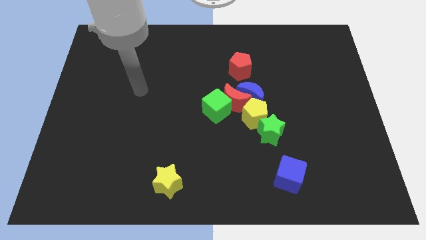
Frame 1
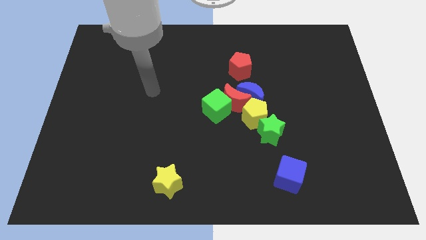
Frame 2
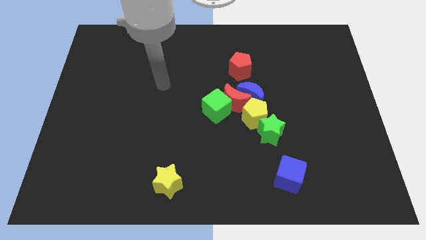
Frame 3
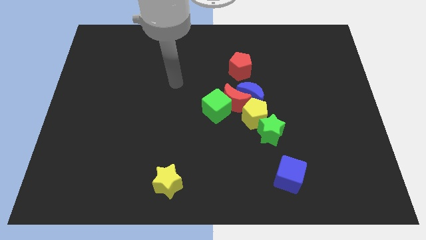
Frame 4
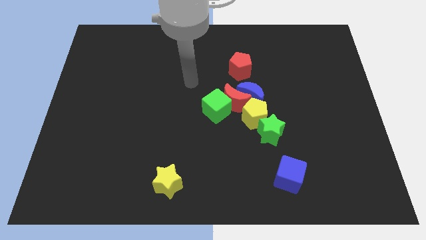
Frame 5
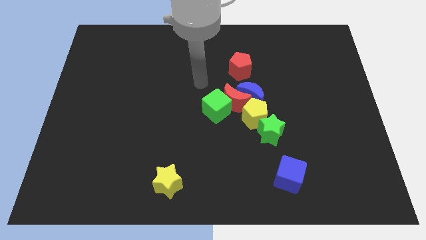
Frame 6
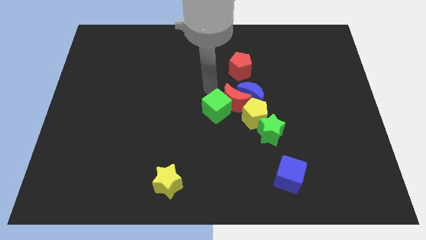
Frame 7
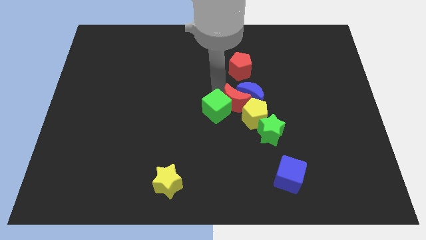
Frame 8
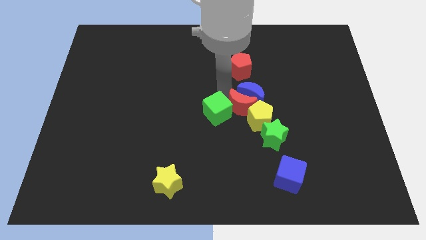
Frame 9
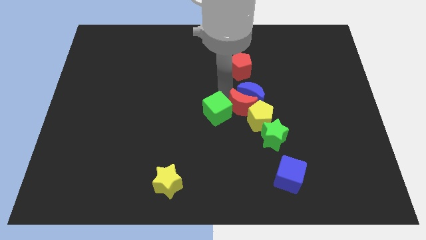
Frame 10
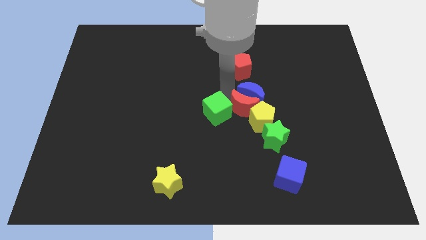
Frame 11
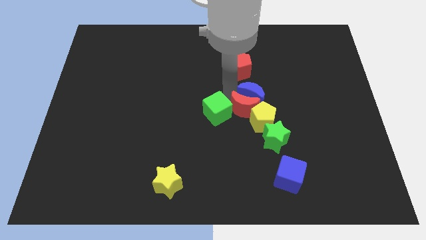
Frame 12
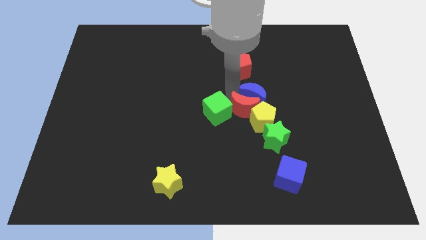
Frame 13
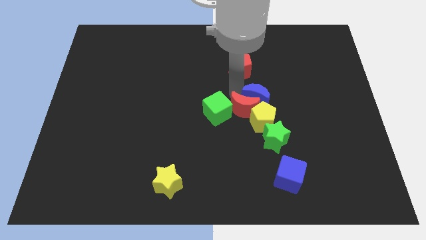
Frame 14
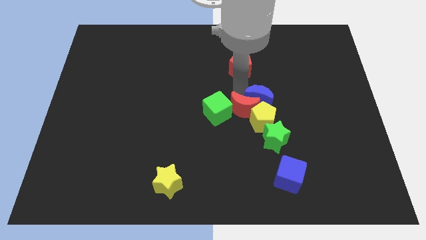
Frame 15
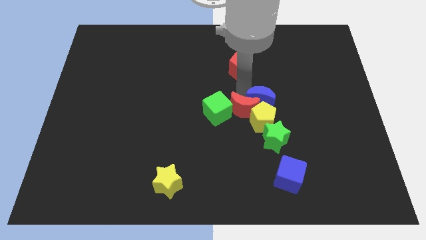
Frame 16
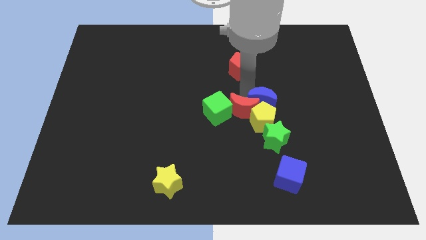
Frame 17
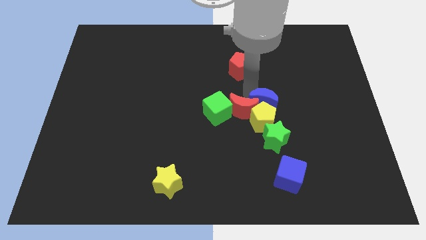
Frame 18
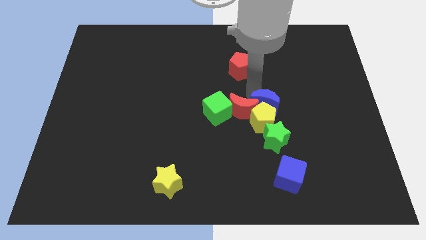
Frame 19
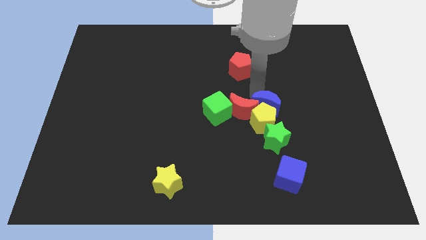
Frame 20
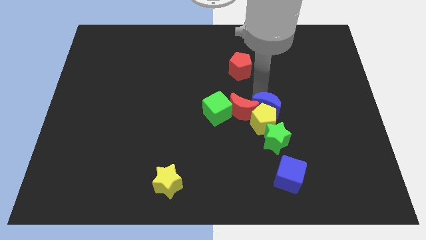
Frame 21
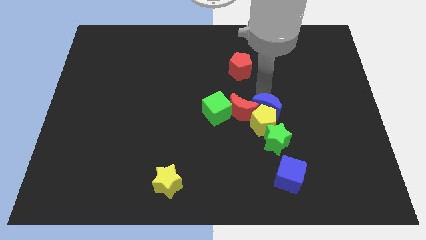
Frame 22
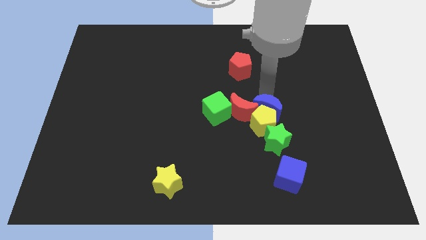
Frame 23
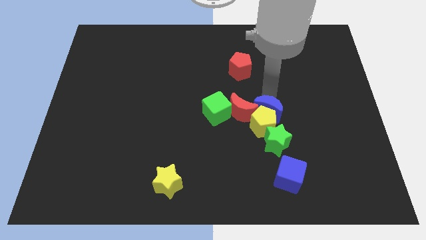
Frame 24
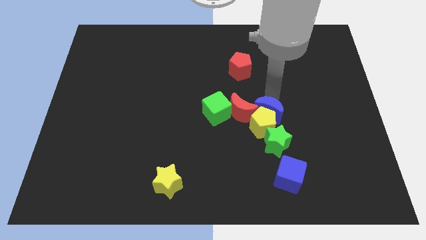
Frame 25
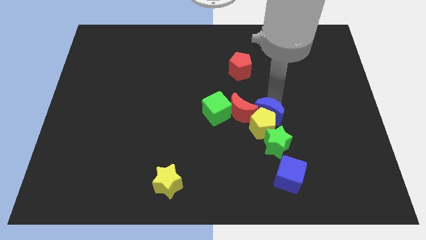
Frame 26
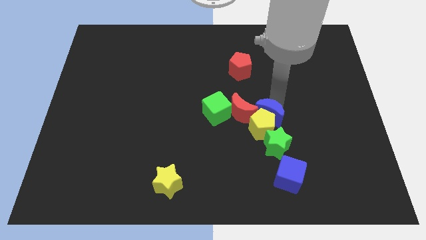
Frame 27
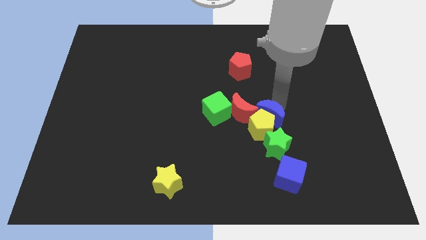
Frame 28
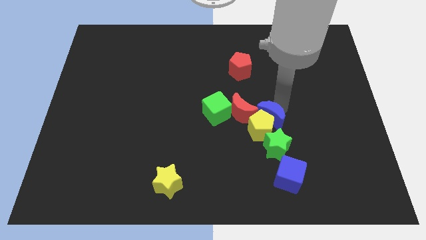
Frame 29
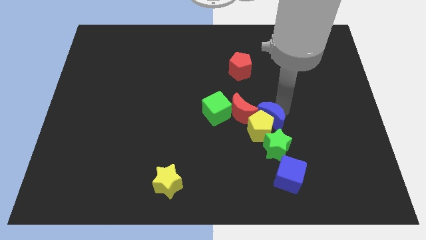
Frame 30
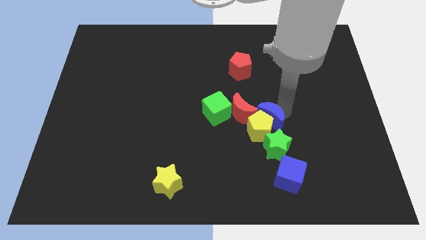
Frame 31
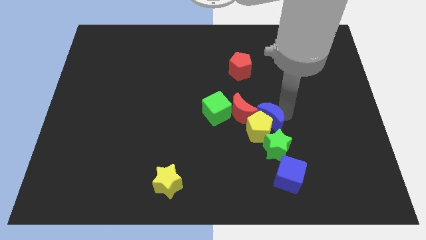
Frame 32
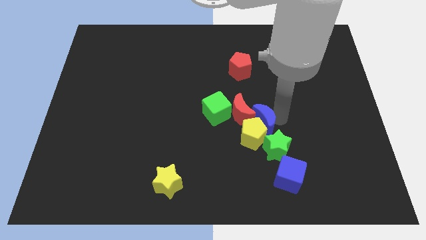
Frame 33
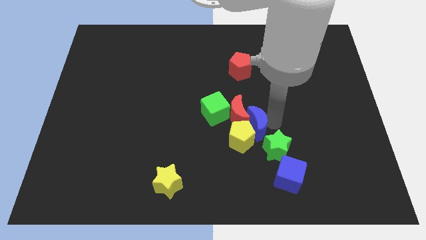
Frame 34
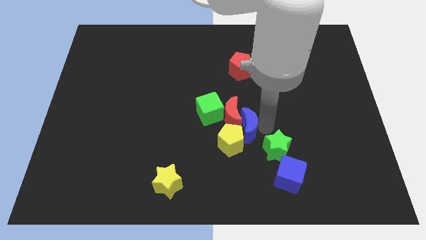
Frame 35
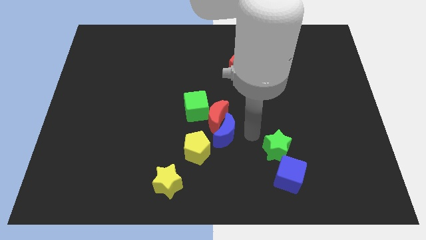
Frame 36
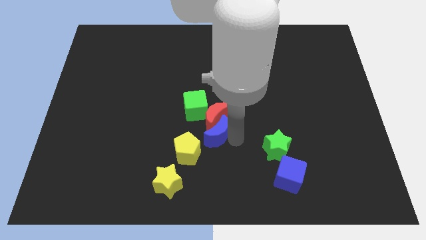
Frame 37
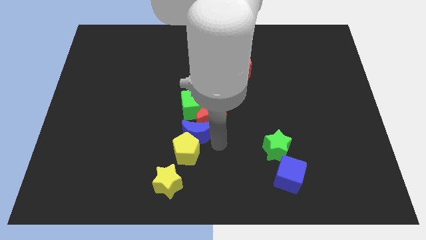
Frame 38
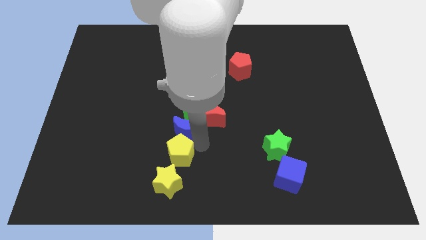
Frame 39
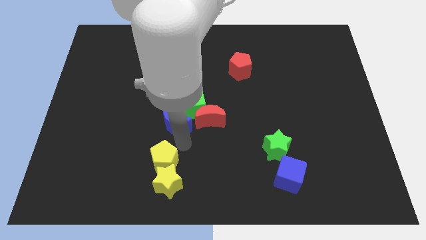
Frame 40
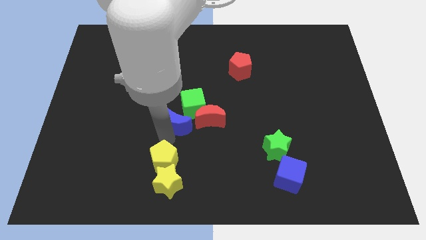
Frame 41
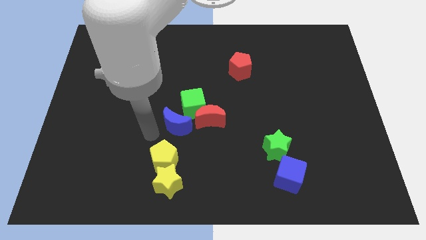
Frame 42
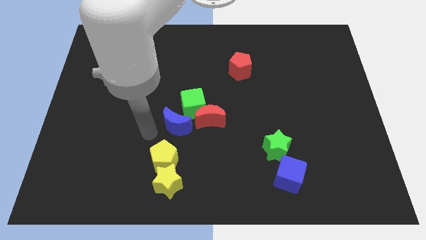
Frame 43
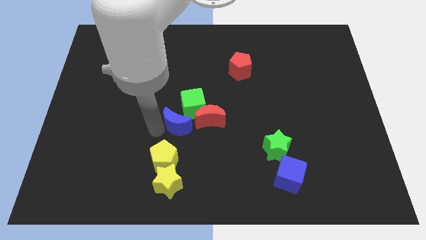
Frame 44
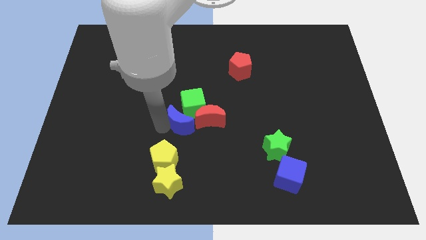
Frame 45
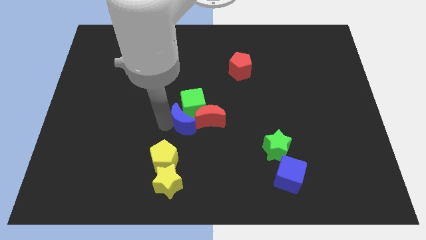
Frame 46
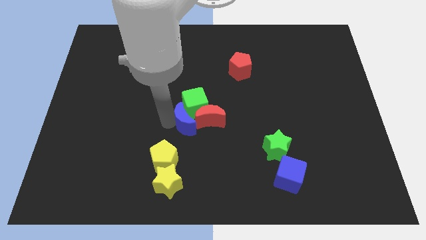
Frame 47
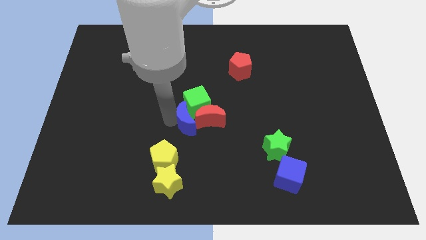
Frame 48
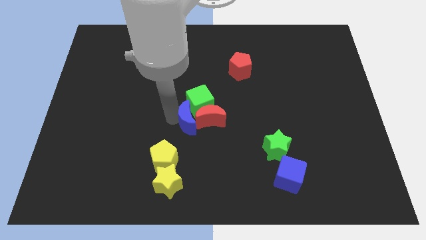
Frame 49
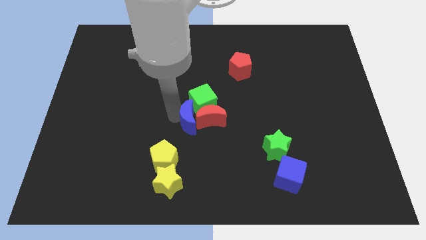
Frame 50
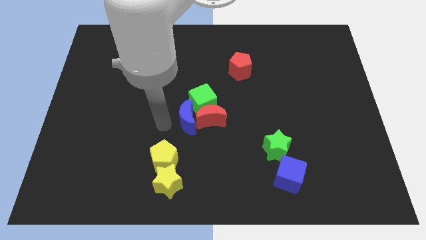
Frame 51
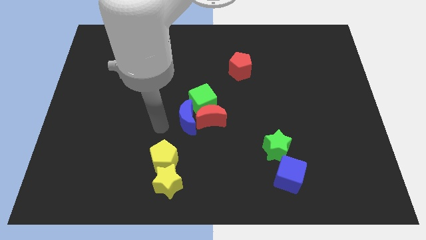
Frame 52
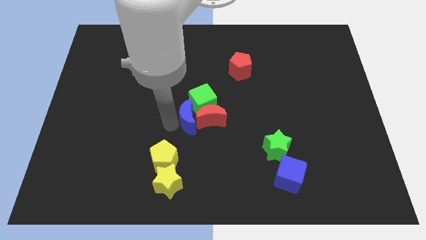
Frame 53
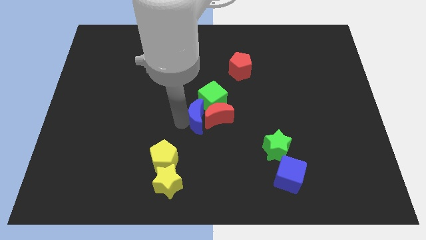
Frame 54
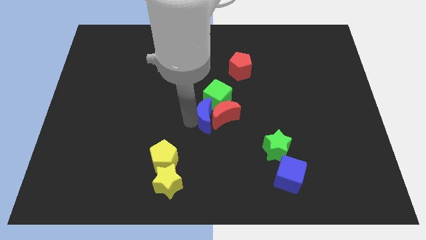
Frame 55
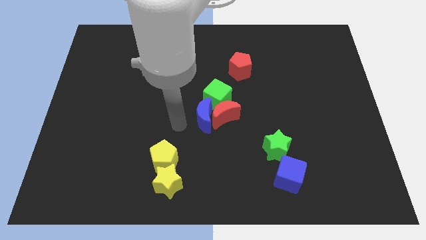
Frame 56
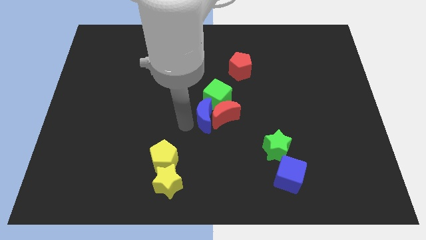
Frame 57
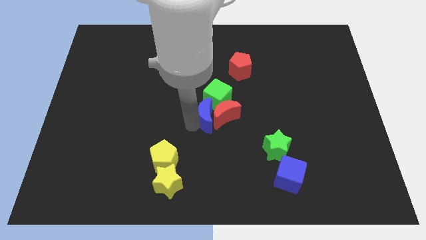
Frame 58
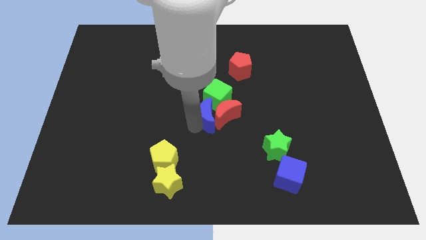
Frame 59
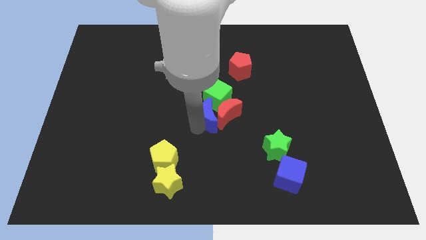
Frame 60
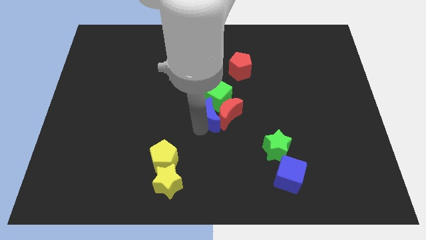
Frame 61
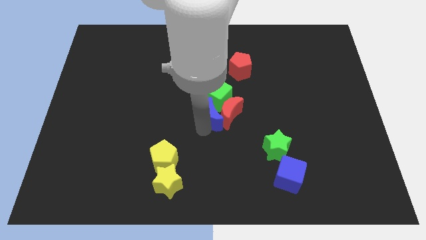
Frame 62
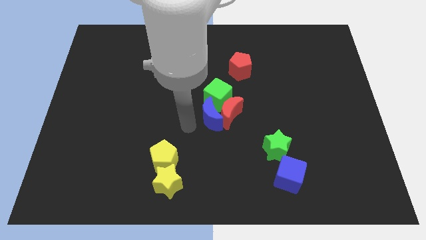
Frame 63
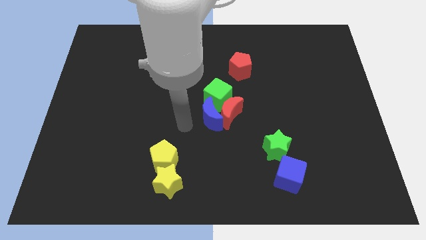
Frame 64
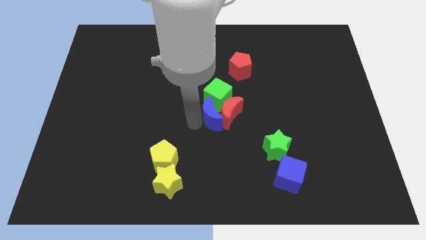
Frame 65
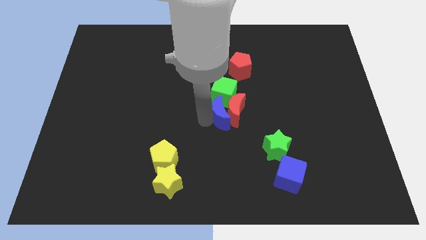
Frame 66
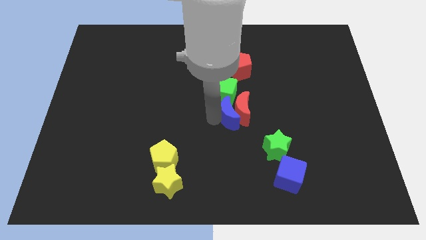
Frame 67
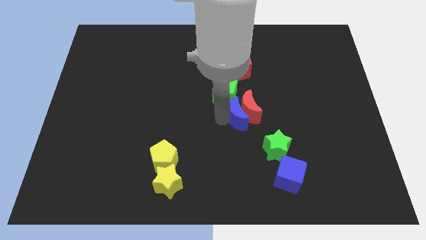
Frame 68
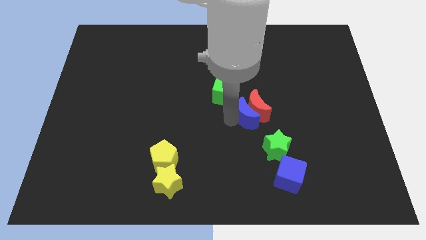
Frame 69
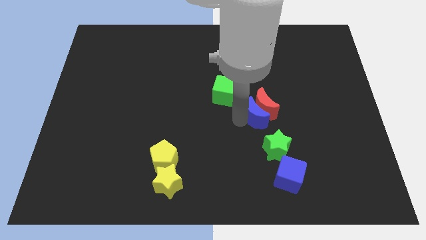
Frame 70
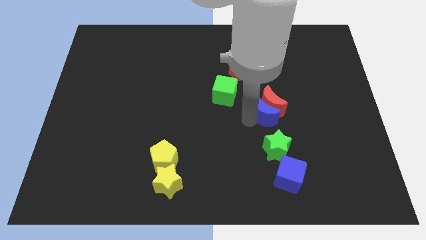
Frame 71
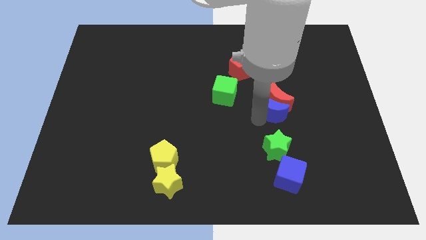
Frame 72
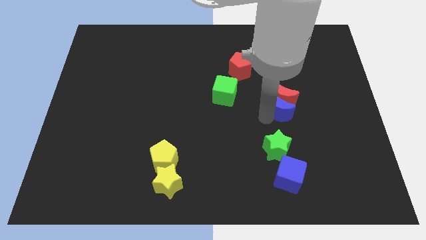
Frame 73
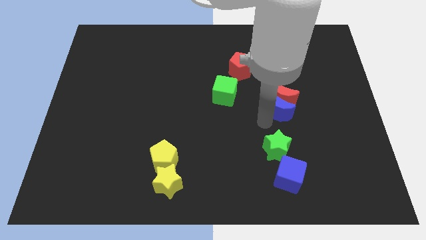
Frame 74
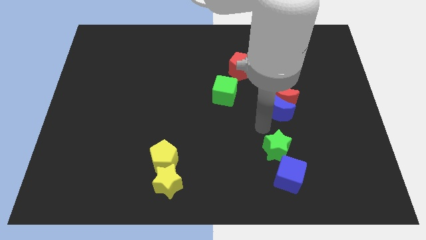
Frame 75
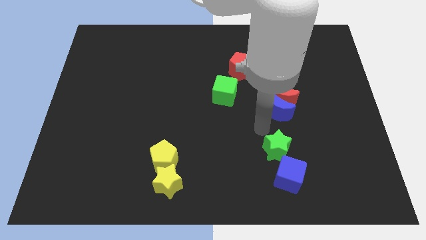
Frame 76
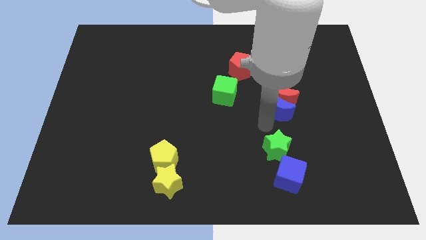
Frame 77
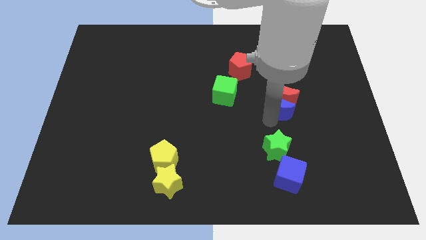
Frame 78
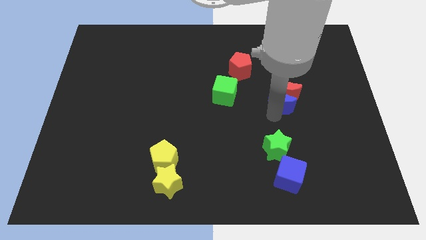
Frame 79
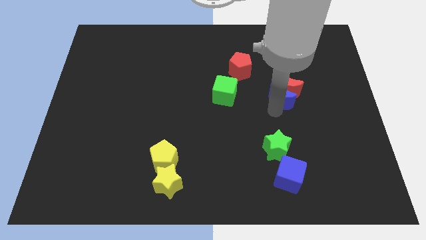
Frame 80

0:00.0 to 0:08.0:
slightly slide the blue moon to the right
